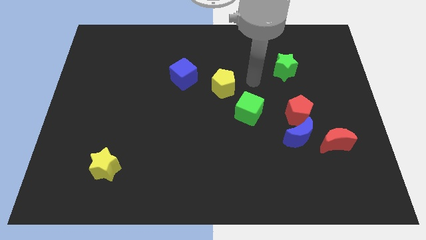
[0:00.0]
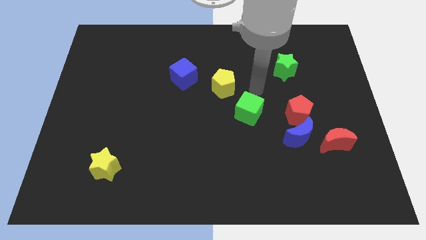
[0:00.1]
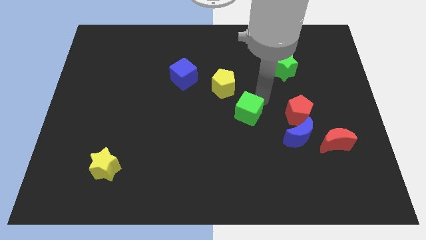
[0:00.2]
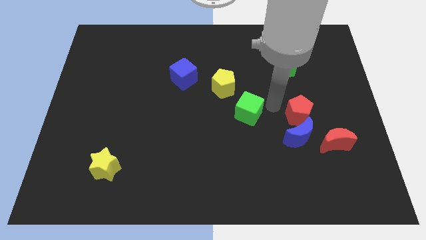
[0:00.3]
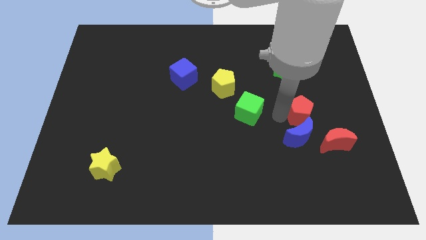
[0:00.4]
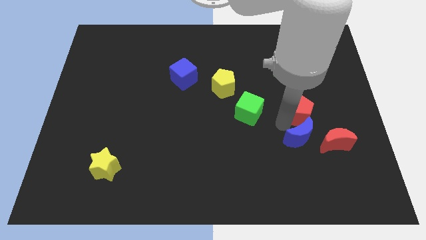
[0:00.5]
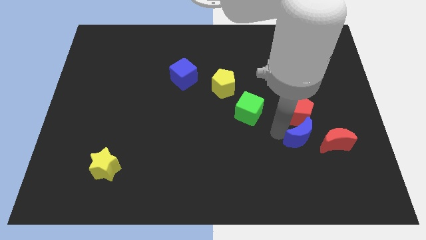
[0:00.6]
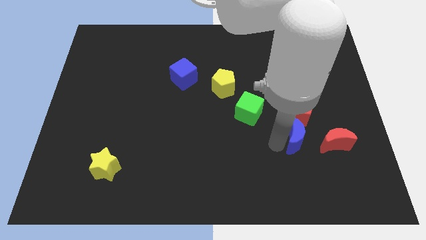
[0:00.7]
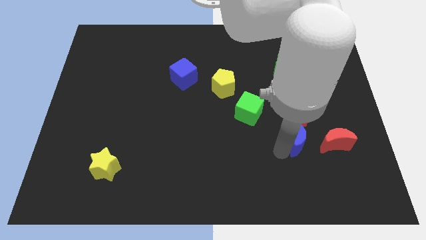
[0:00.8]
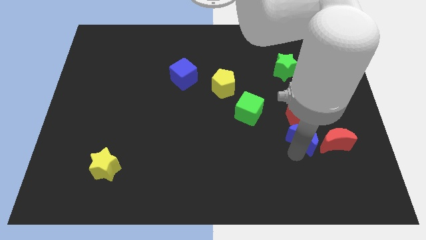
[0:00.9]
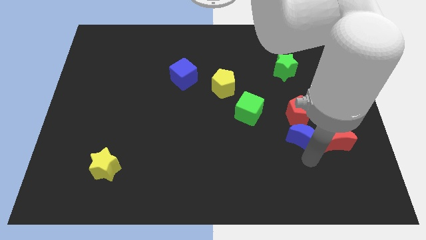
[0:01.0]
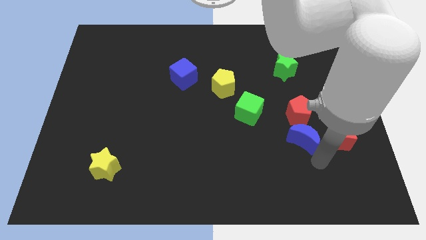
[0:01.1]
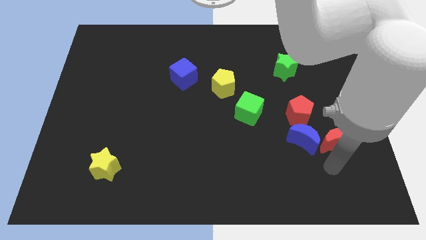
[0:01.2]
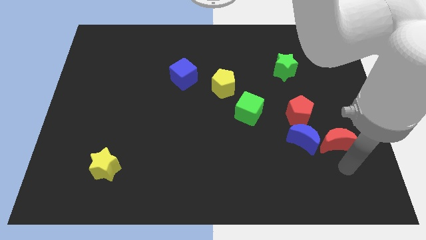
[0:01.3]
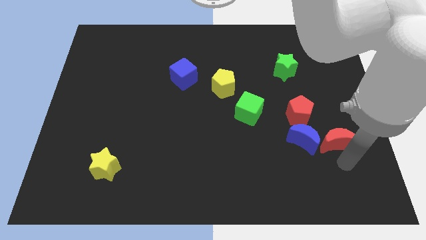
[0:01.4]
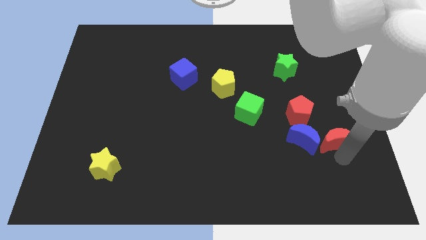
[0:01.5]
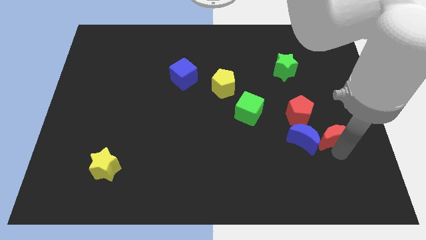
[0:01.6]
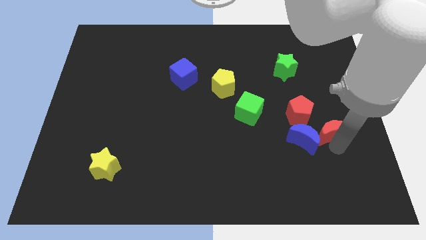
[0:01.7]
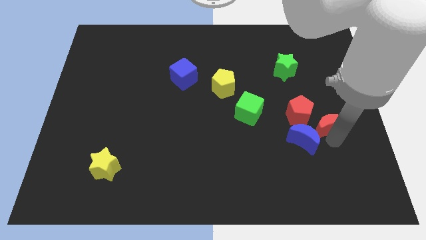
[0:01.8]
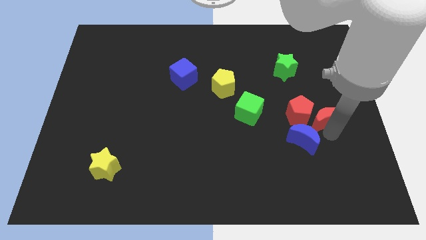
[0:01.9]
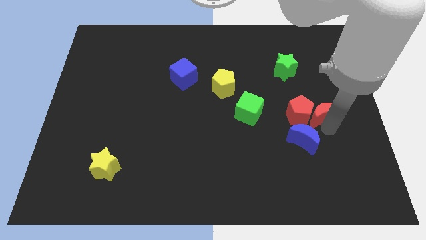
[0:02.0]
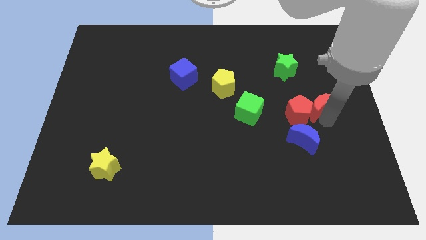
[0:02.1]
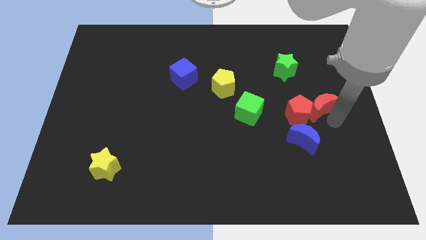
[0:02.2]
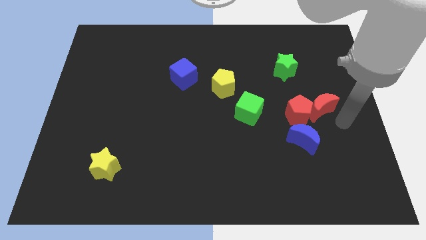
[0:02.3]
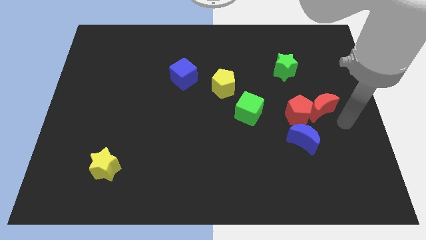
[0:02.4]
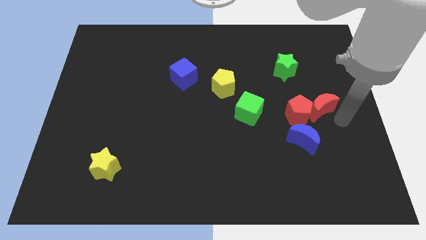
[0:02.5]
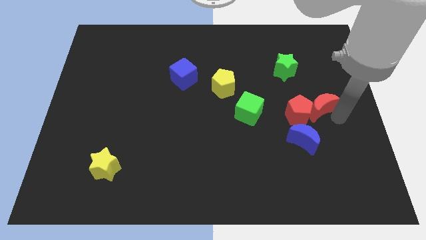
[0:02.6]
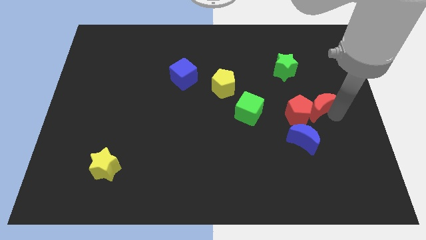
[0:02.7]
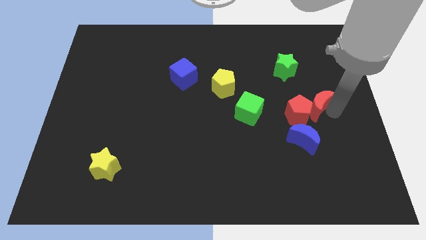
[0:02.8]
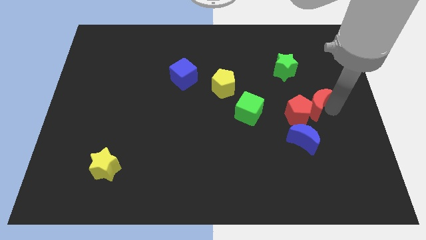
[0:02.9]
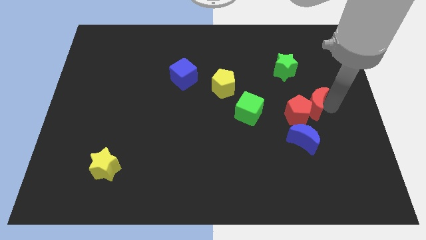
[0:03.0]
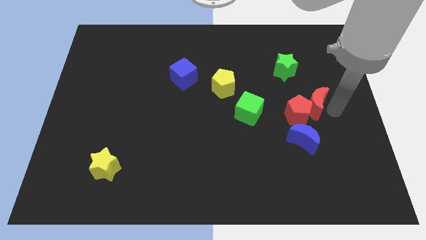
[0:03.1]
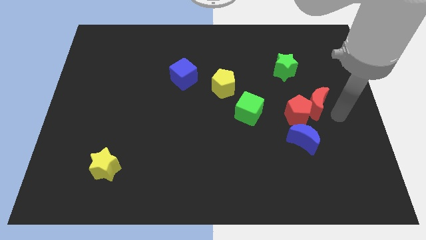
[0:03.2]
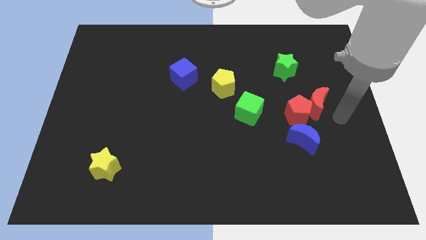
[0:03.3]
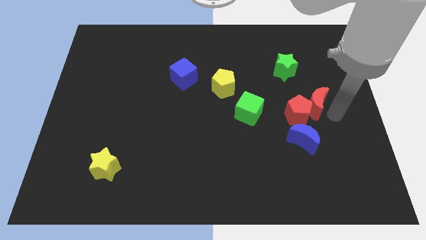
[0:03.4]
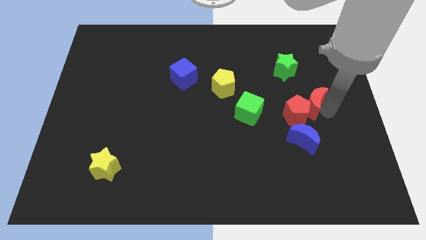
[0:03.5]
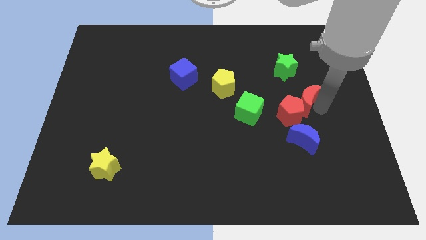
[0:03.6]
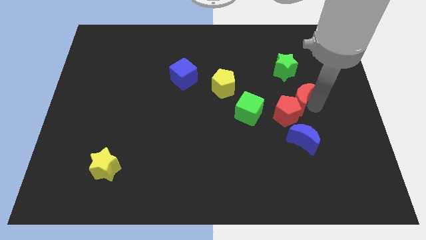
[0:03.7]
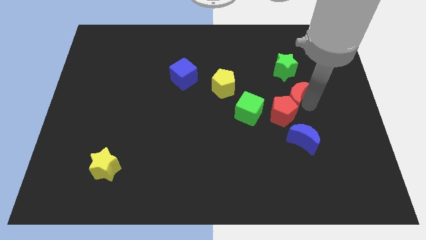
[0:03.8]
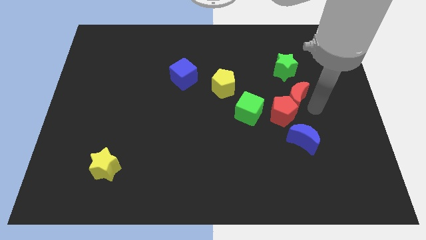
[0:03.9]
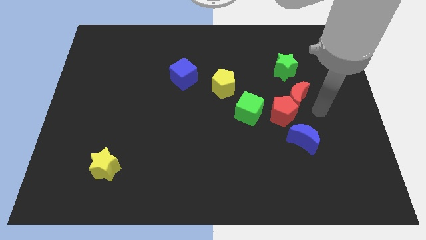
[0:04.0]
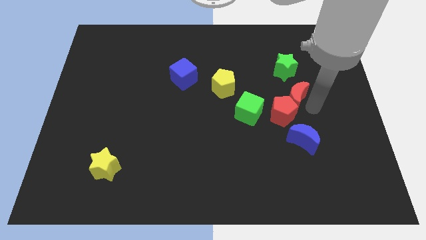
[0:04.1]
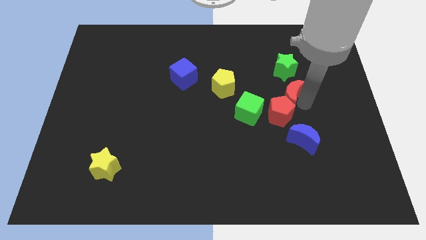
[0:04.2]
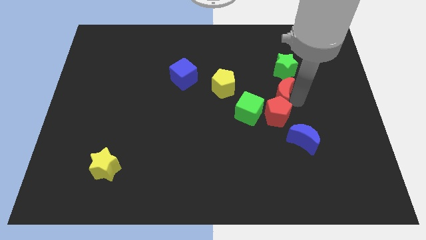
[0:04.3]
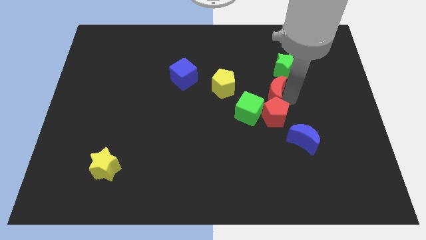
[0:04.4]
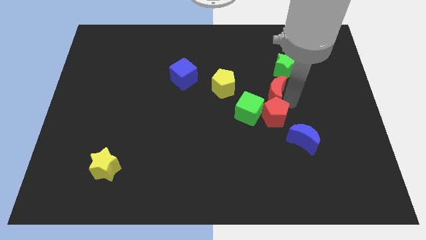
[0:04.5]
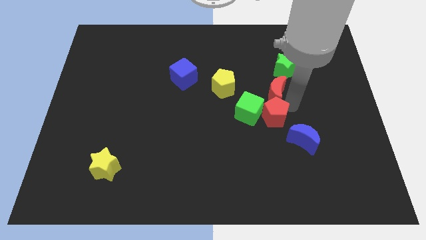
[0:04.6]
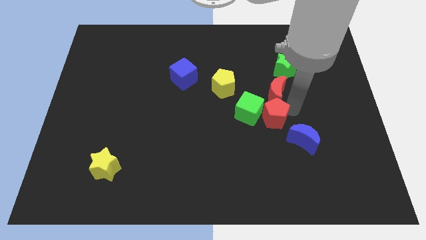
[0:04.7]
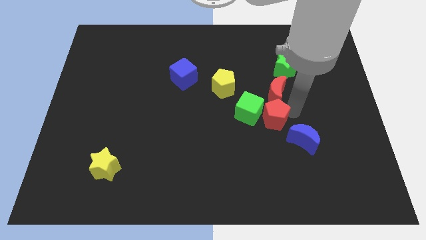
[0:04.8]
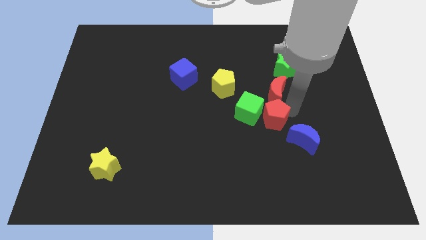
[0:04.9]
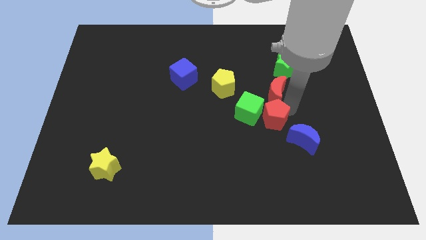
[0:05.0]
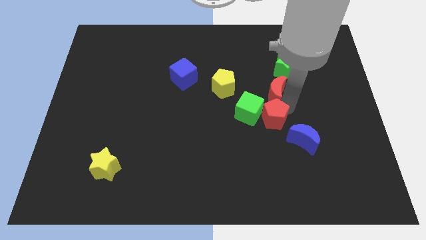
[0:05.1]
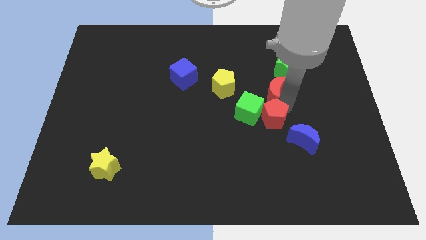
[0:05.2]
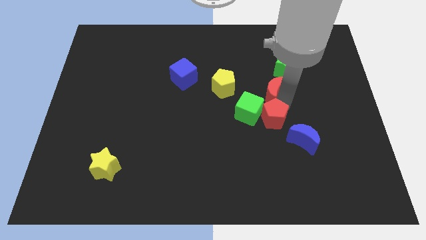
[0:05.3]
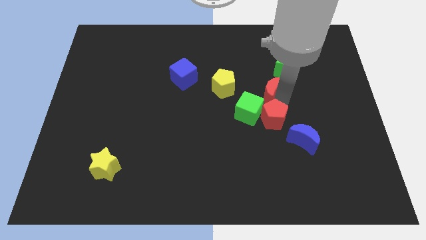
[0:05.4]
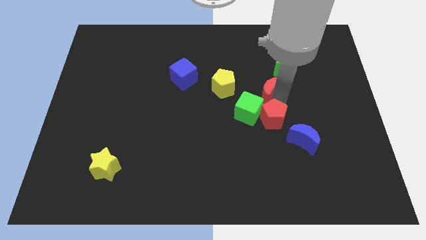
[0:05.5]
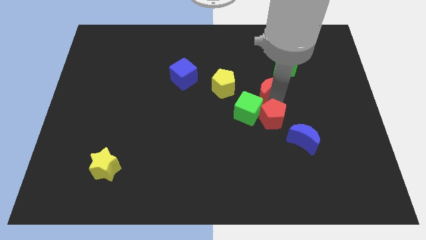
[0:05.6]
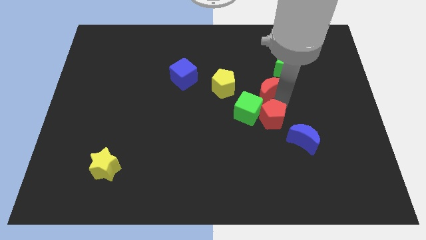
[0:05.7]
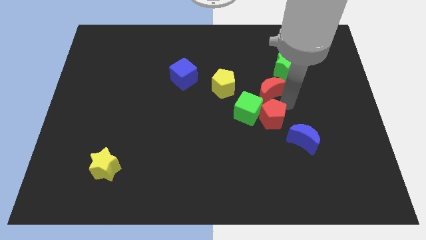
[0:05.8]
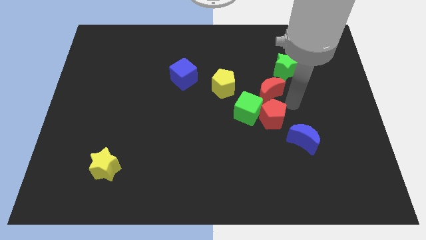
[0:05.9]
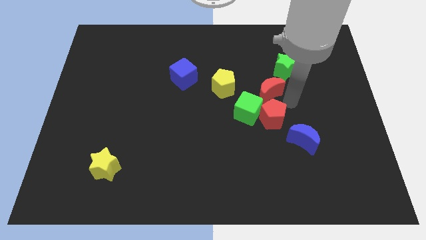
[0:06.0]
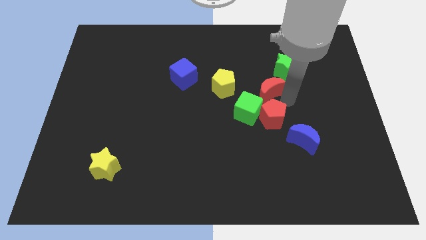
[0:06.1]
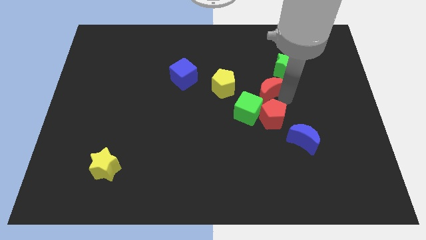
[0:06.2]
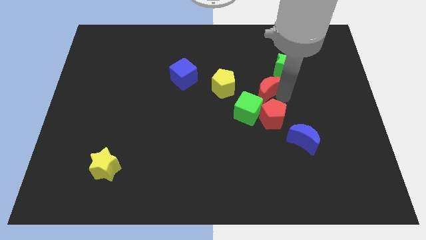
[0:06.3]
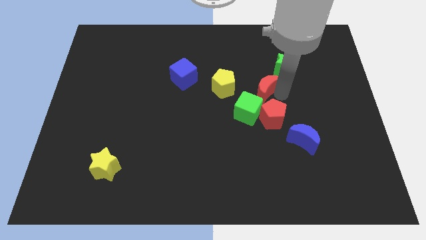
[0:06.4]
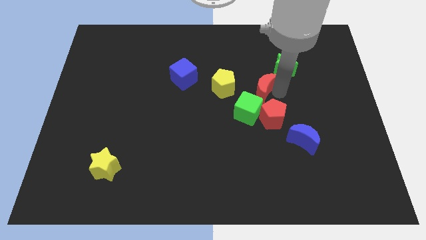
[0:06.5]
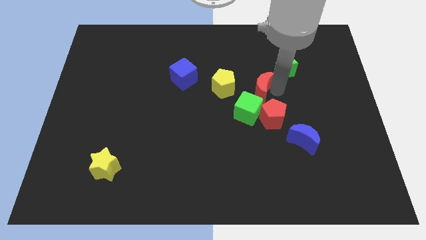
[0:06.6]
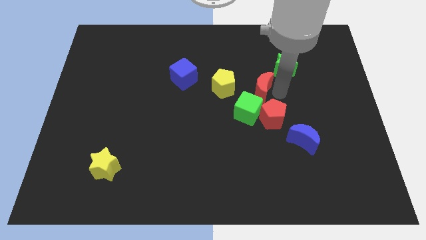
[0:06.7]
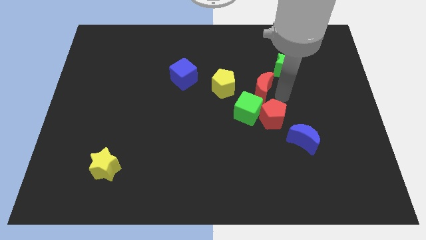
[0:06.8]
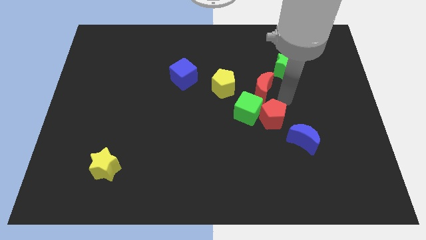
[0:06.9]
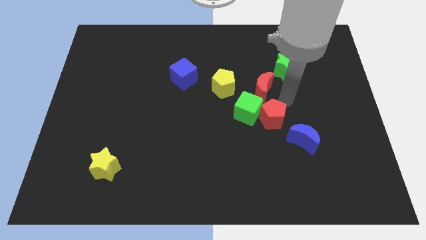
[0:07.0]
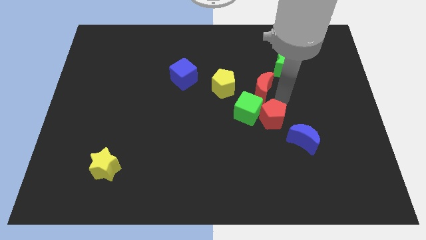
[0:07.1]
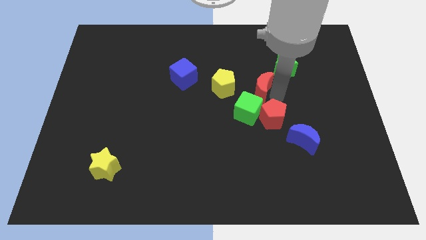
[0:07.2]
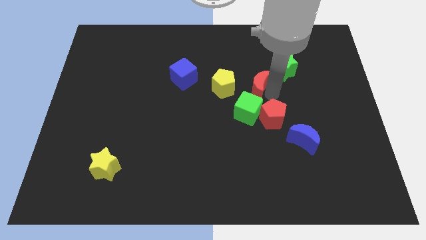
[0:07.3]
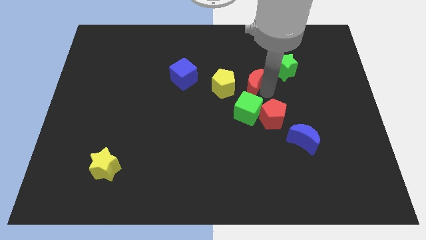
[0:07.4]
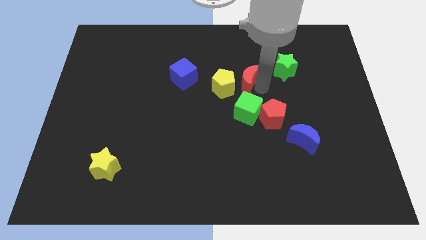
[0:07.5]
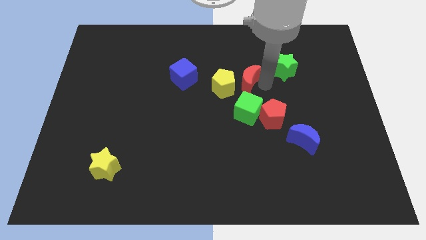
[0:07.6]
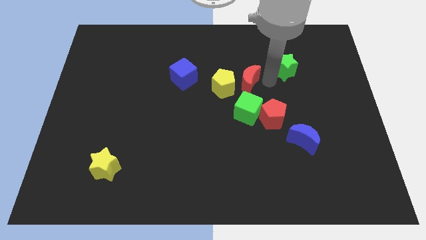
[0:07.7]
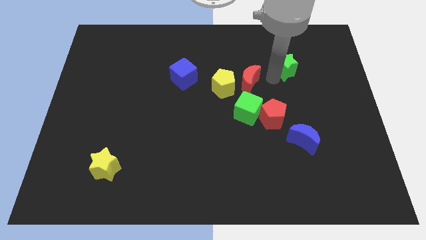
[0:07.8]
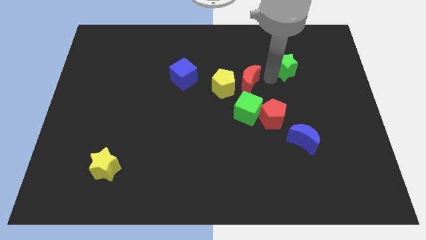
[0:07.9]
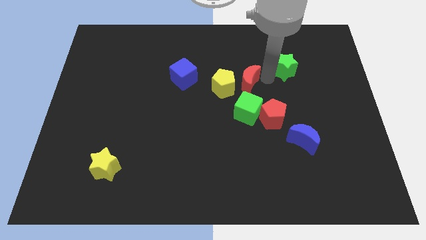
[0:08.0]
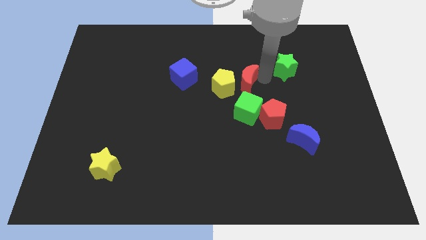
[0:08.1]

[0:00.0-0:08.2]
put the red moon to the yellow pentagon
